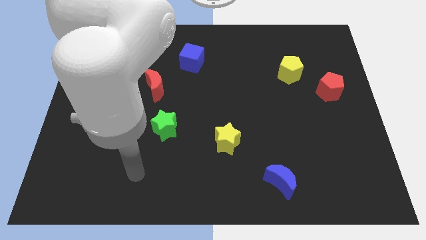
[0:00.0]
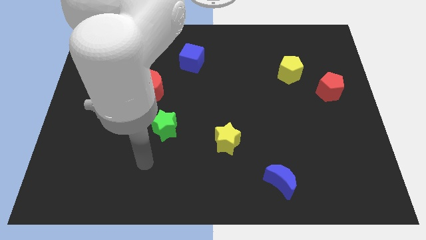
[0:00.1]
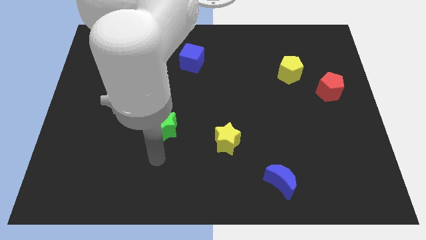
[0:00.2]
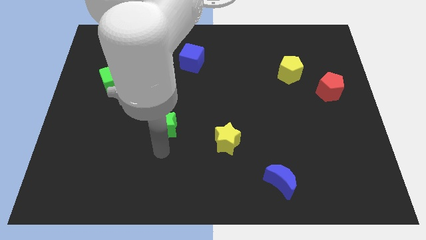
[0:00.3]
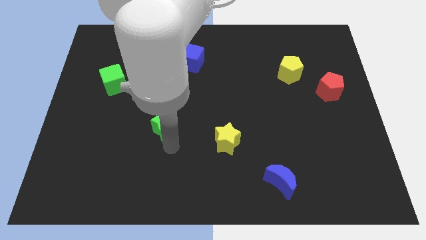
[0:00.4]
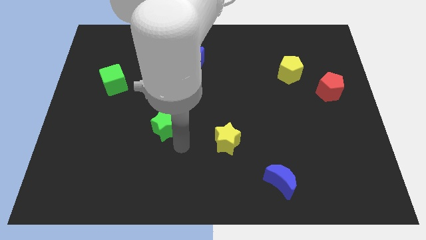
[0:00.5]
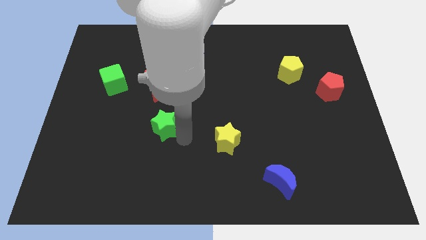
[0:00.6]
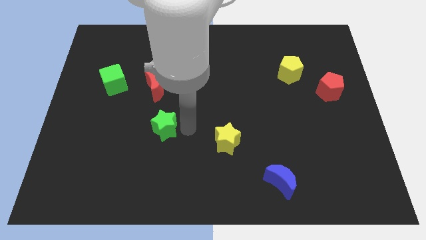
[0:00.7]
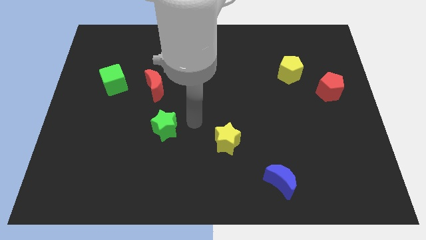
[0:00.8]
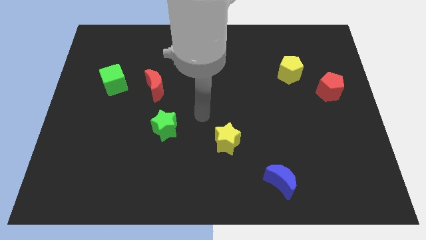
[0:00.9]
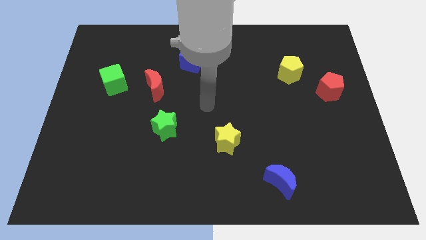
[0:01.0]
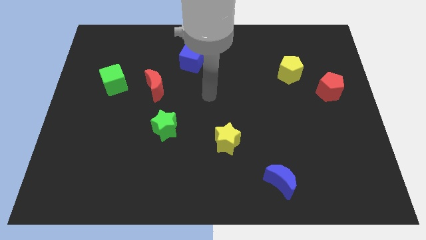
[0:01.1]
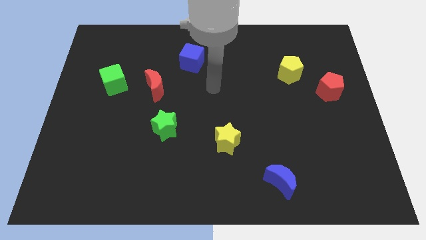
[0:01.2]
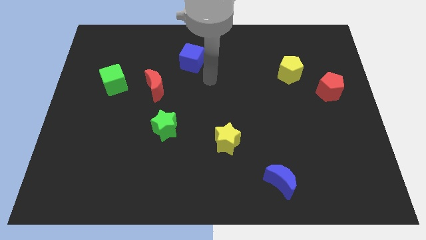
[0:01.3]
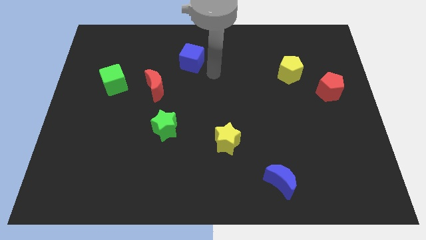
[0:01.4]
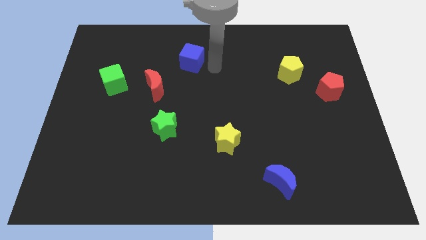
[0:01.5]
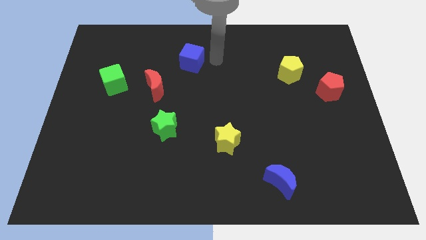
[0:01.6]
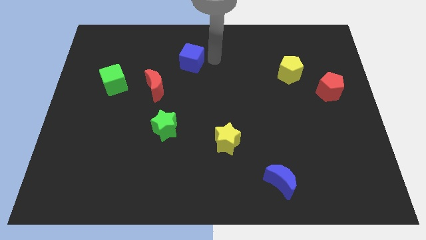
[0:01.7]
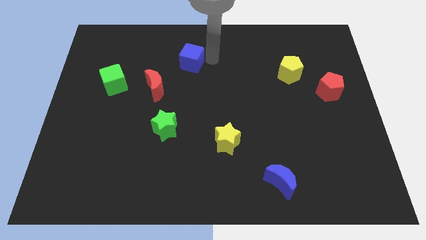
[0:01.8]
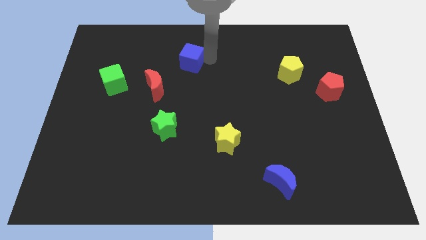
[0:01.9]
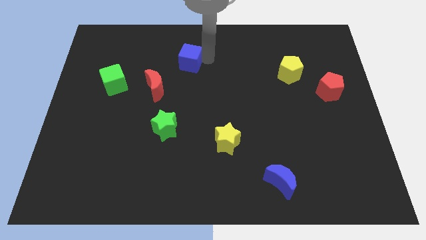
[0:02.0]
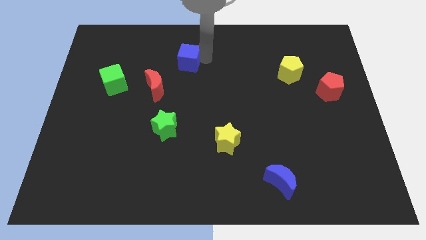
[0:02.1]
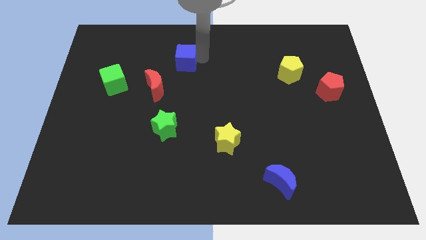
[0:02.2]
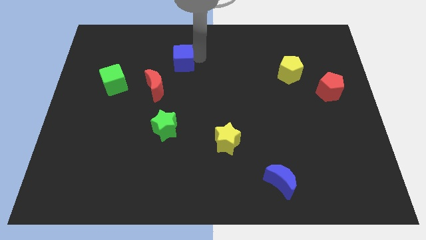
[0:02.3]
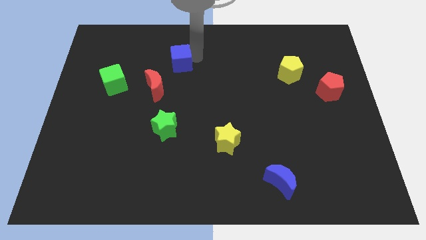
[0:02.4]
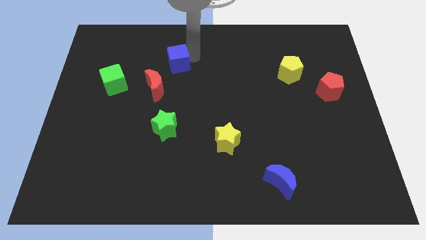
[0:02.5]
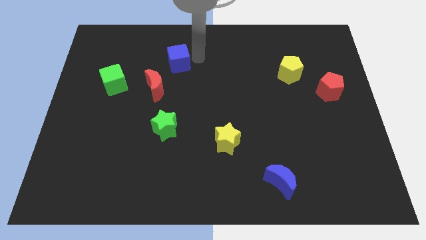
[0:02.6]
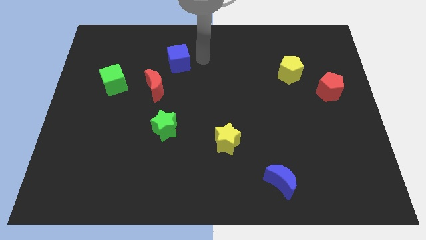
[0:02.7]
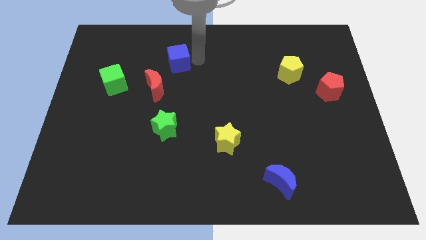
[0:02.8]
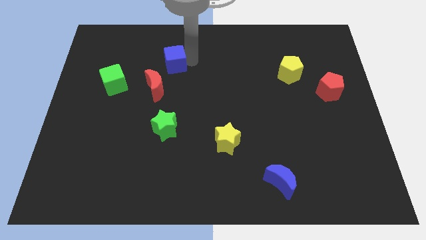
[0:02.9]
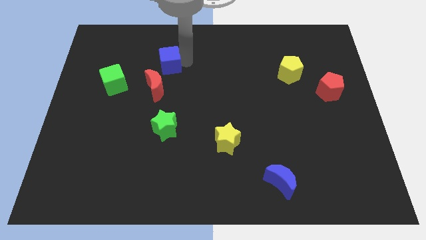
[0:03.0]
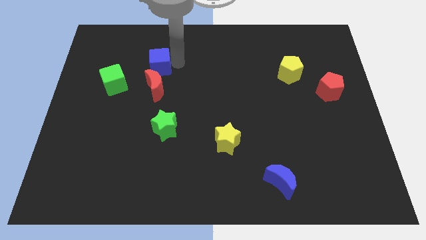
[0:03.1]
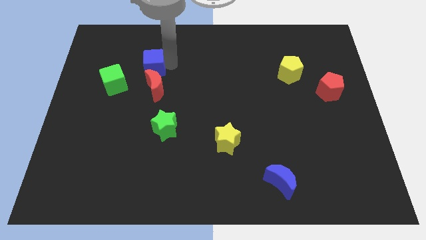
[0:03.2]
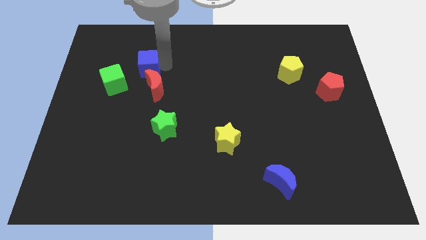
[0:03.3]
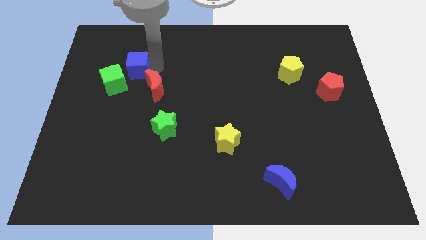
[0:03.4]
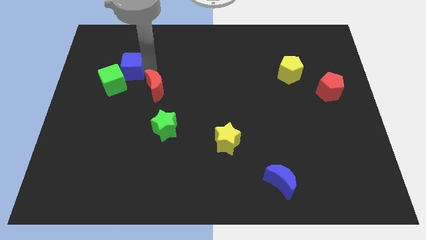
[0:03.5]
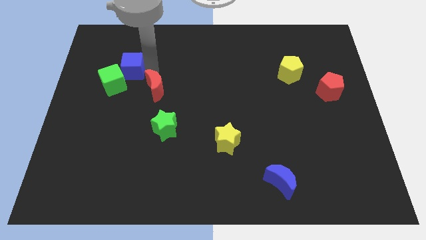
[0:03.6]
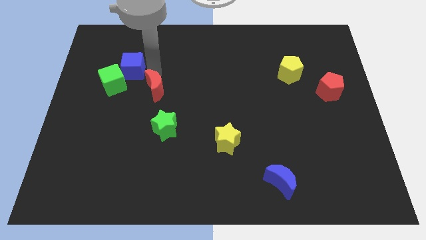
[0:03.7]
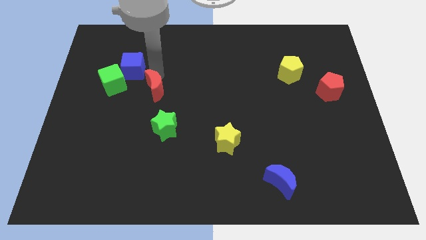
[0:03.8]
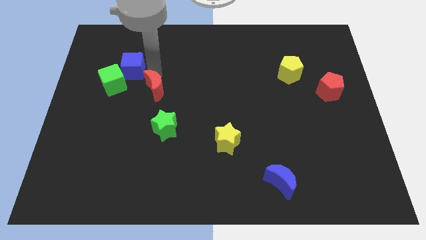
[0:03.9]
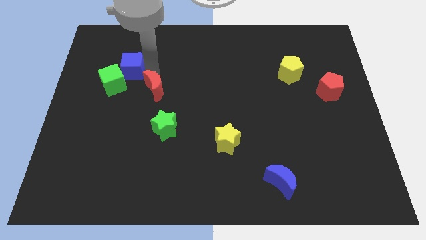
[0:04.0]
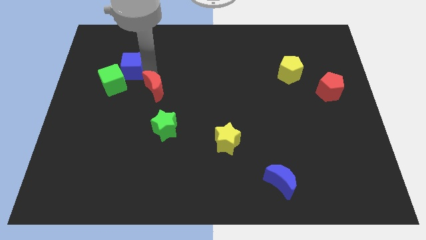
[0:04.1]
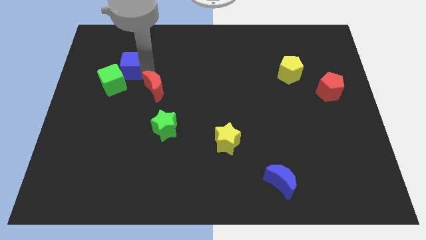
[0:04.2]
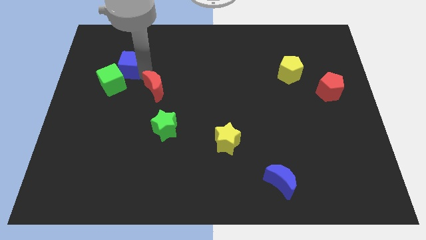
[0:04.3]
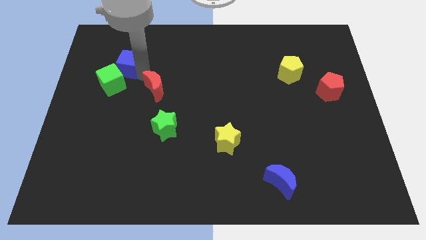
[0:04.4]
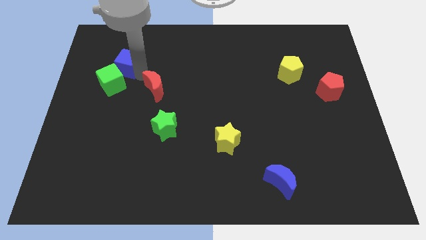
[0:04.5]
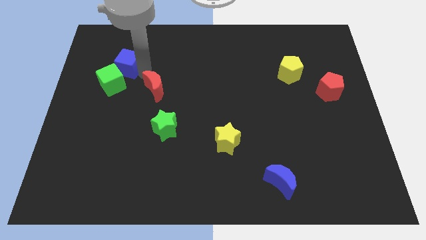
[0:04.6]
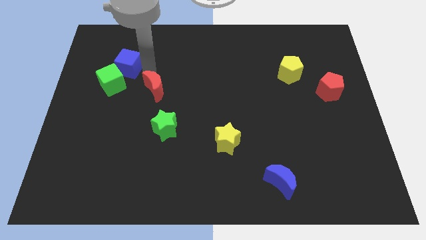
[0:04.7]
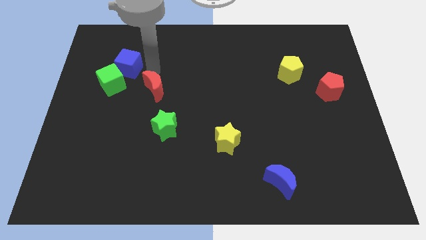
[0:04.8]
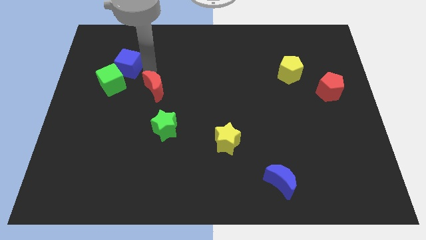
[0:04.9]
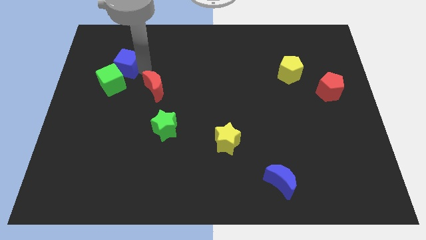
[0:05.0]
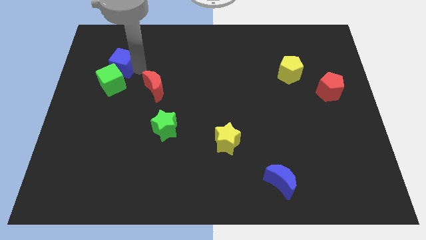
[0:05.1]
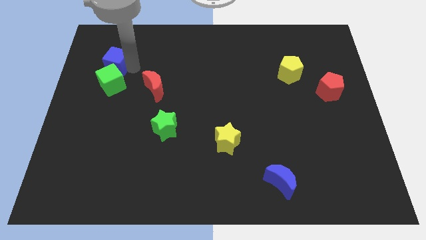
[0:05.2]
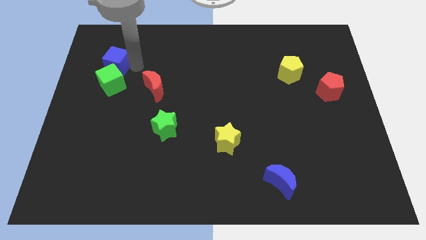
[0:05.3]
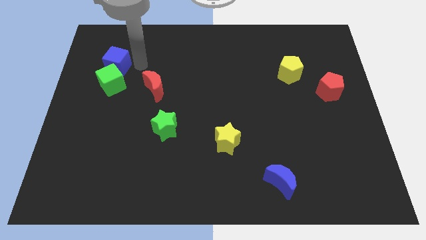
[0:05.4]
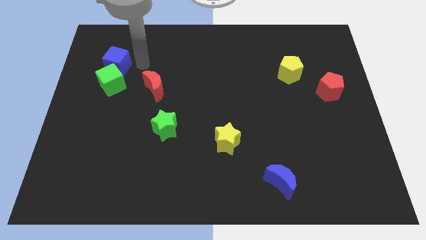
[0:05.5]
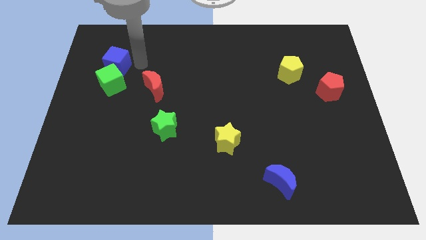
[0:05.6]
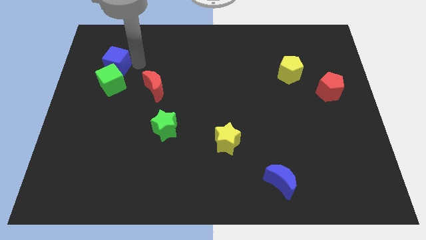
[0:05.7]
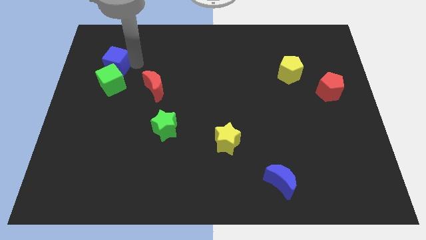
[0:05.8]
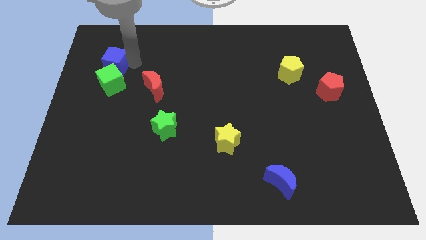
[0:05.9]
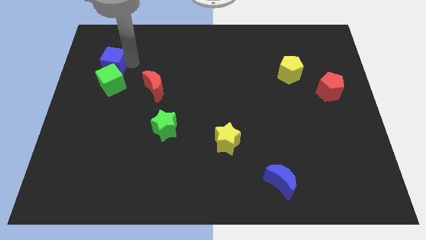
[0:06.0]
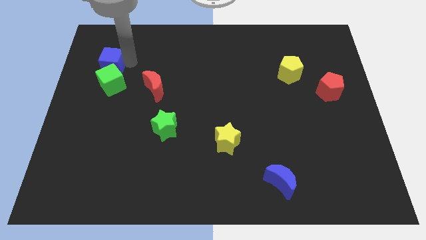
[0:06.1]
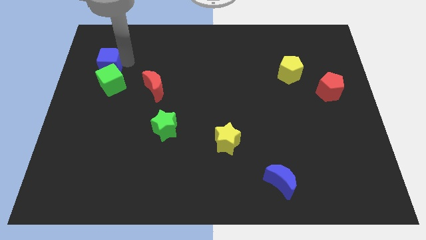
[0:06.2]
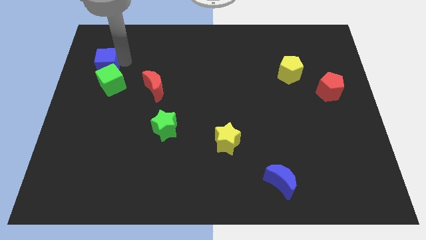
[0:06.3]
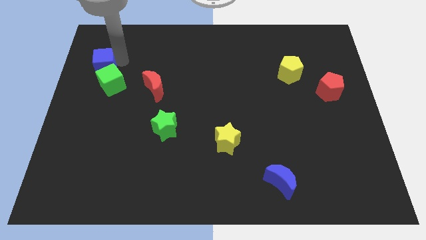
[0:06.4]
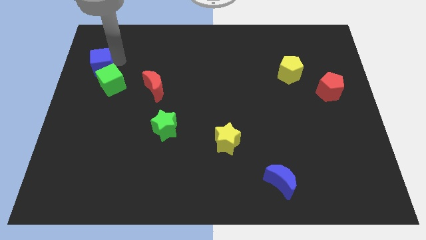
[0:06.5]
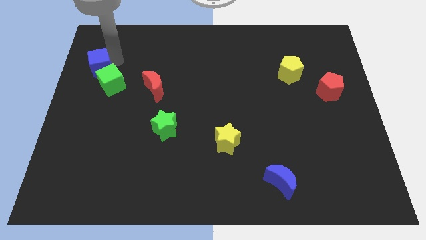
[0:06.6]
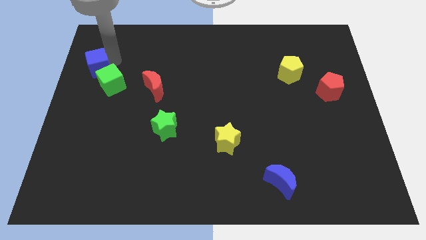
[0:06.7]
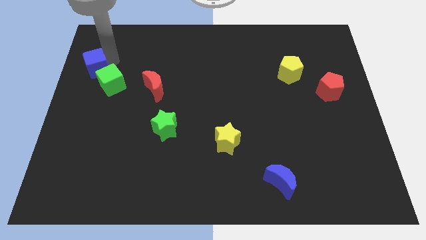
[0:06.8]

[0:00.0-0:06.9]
move the blue cube to the left side of the board
